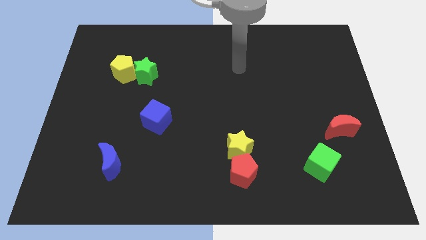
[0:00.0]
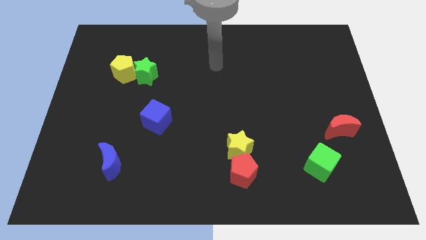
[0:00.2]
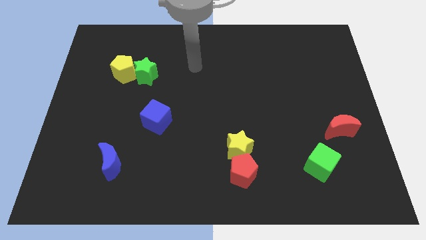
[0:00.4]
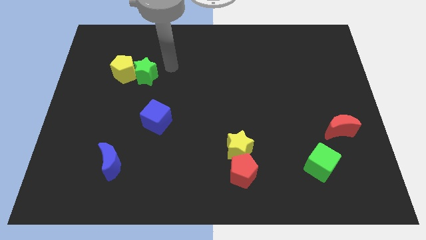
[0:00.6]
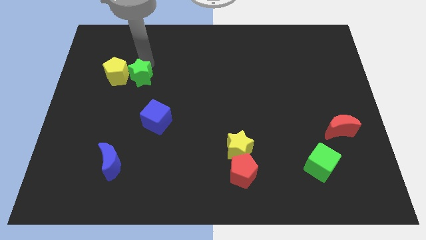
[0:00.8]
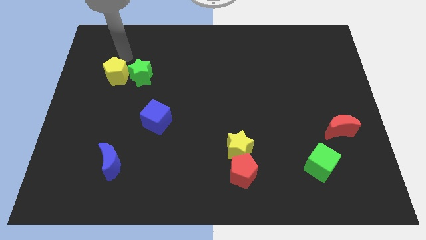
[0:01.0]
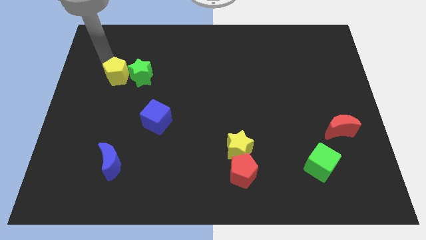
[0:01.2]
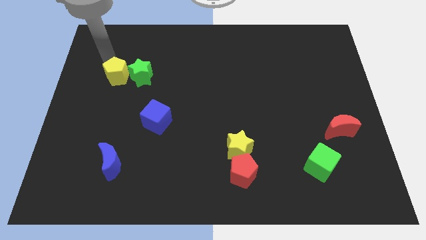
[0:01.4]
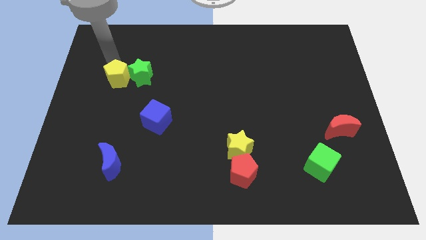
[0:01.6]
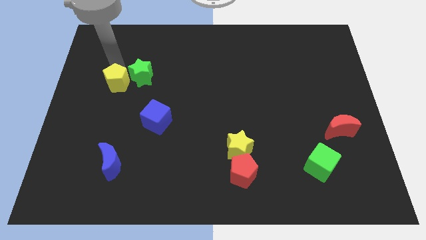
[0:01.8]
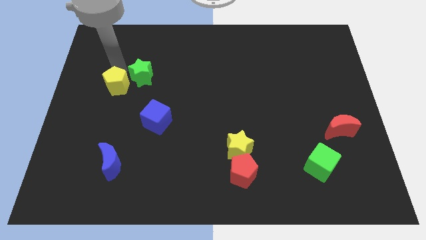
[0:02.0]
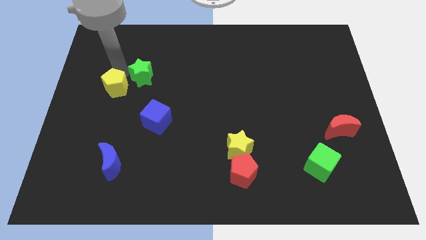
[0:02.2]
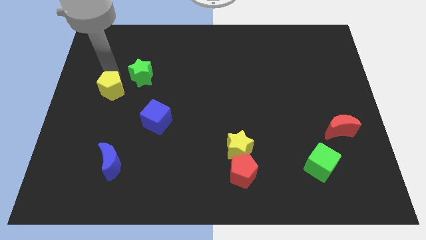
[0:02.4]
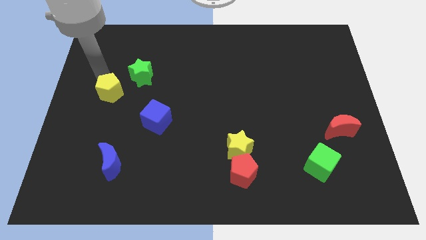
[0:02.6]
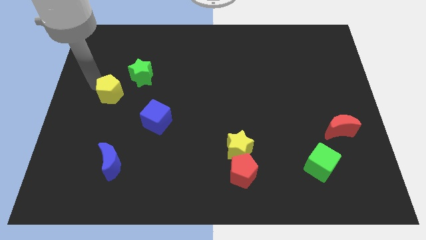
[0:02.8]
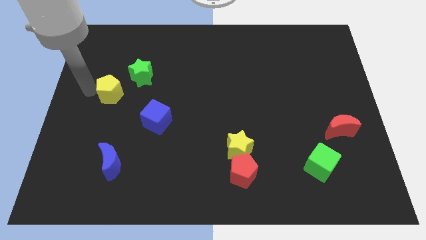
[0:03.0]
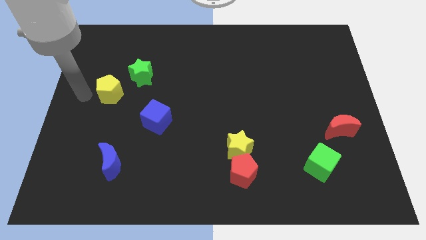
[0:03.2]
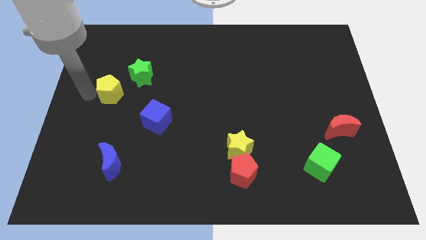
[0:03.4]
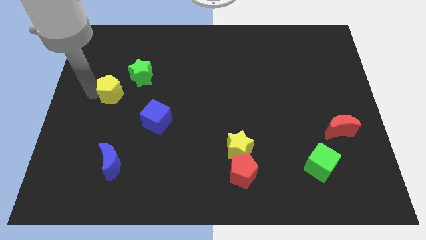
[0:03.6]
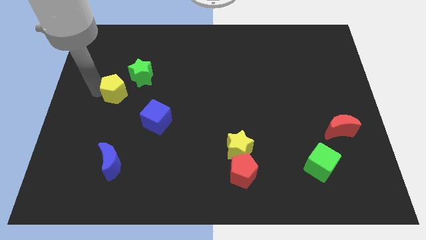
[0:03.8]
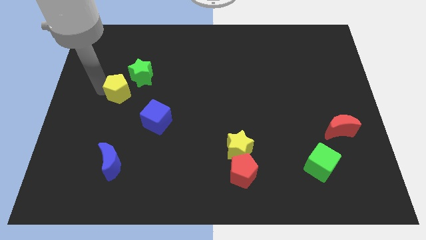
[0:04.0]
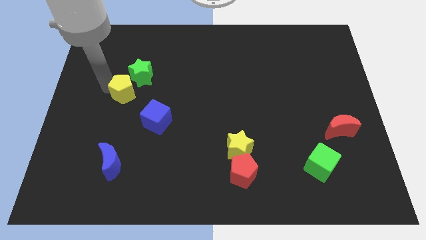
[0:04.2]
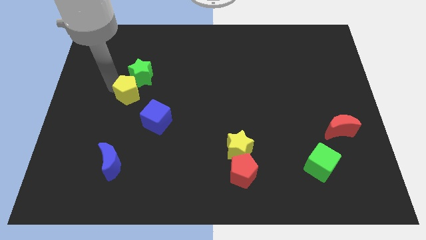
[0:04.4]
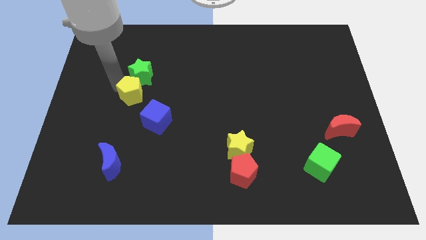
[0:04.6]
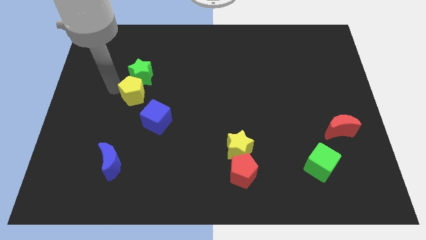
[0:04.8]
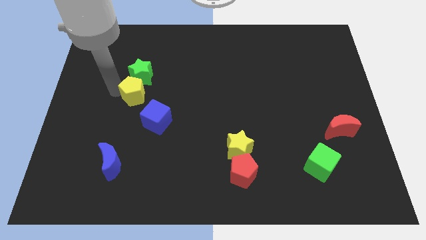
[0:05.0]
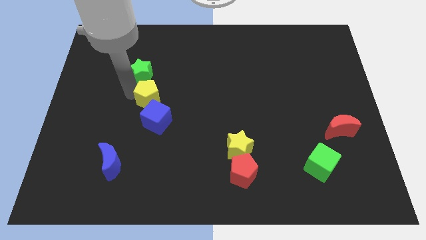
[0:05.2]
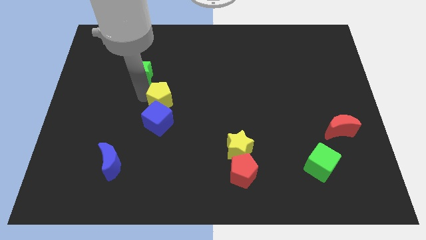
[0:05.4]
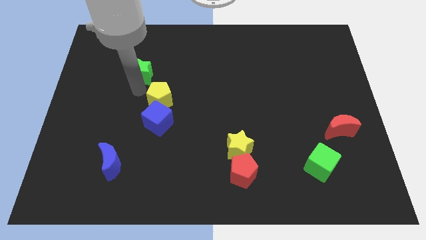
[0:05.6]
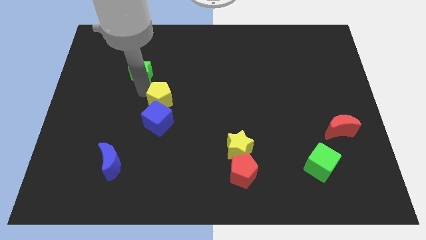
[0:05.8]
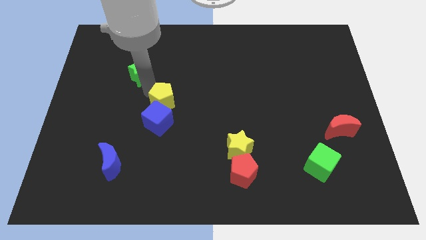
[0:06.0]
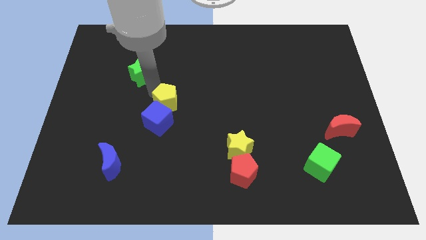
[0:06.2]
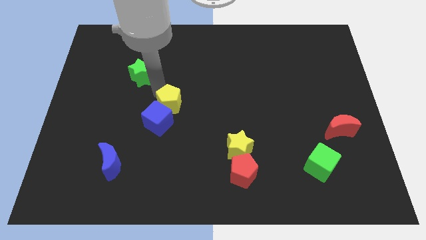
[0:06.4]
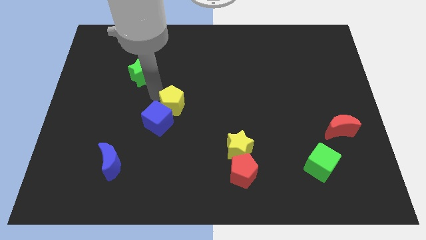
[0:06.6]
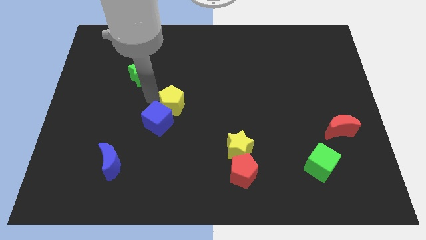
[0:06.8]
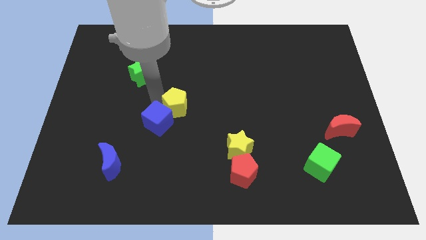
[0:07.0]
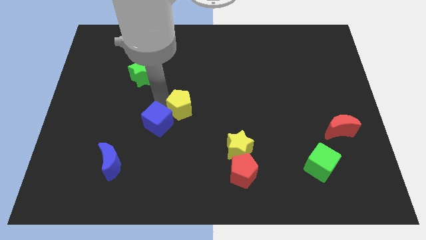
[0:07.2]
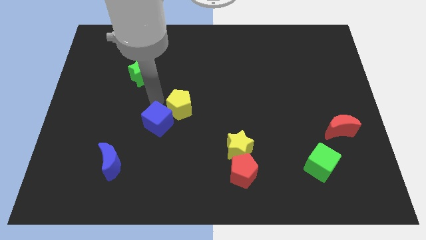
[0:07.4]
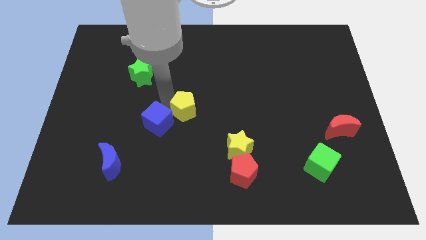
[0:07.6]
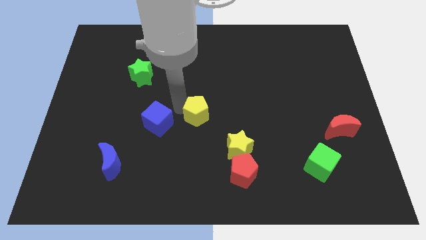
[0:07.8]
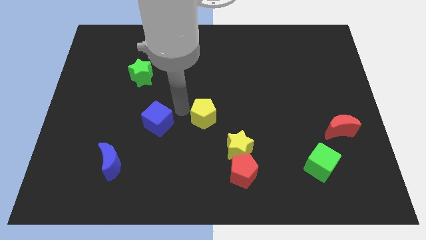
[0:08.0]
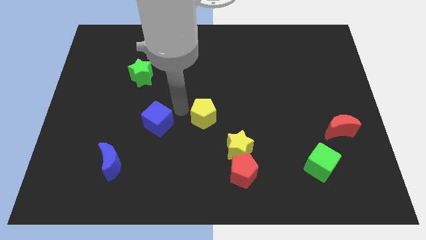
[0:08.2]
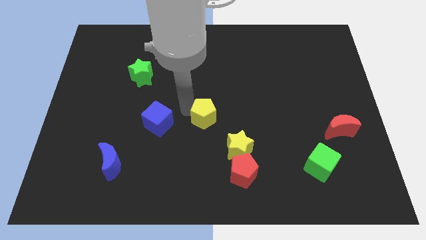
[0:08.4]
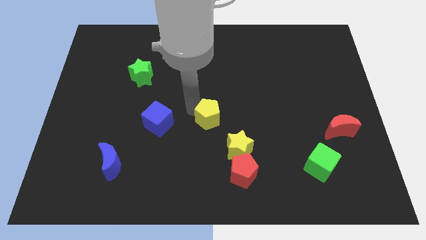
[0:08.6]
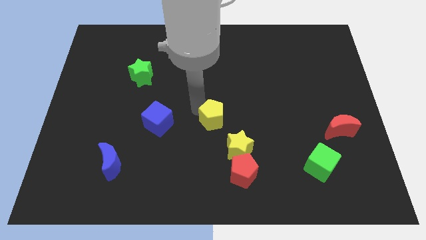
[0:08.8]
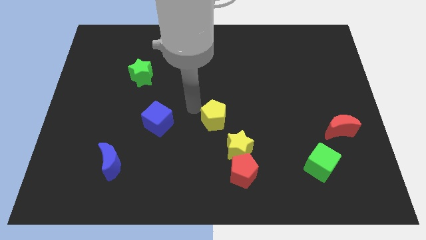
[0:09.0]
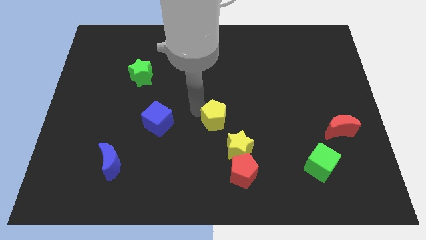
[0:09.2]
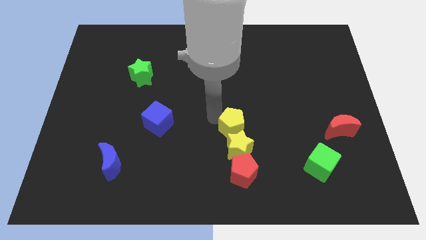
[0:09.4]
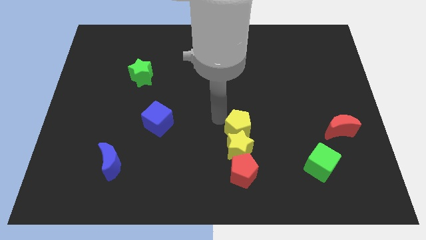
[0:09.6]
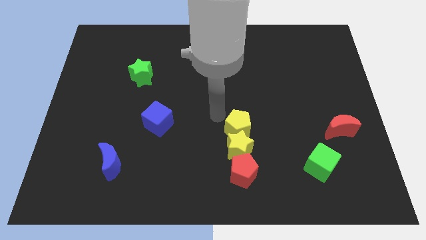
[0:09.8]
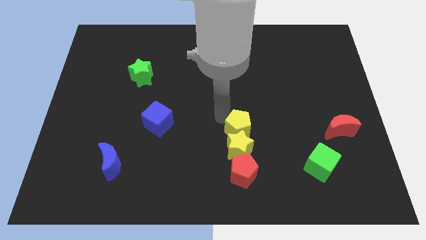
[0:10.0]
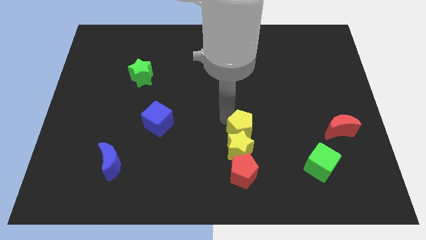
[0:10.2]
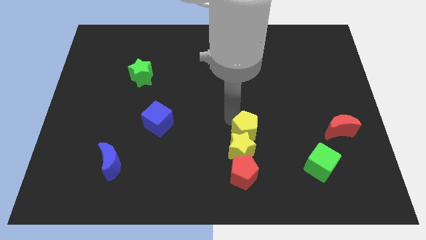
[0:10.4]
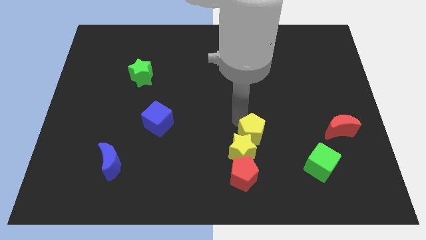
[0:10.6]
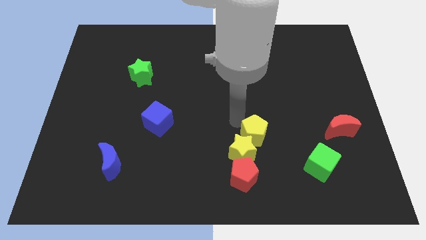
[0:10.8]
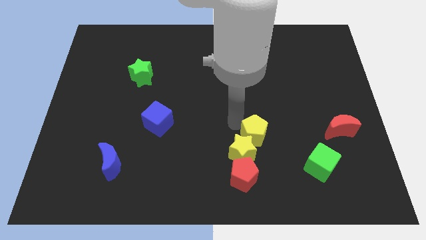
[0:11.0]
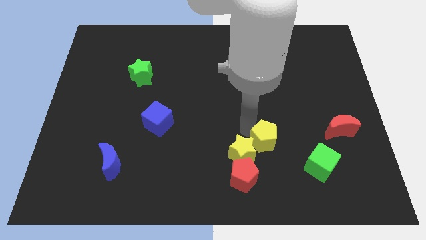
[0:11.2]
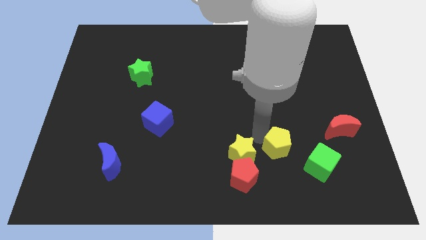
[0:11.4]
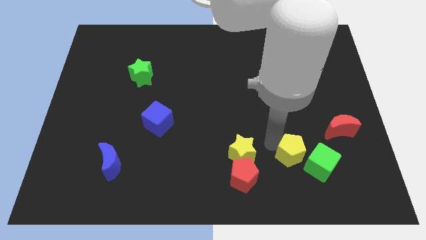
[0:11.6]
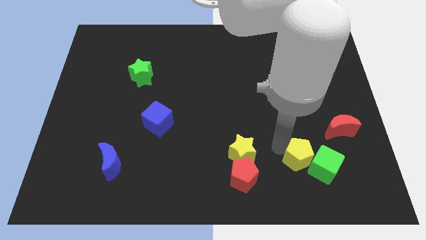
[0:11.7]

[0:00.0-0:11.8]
slide the yellow pentagon next to the green cube

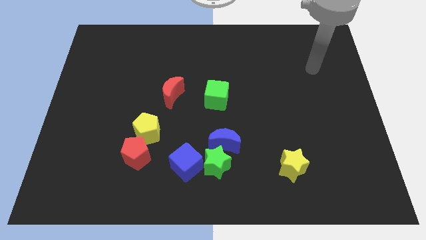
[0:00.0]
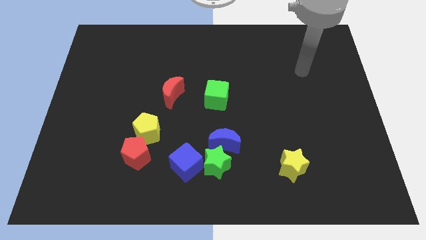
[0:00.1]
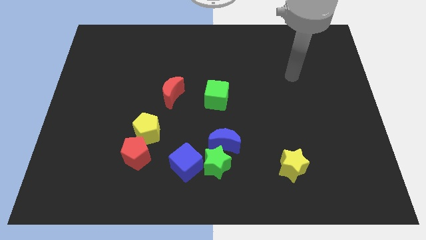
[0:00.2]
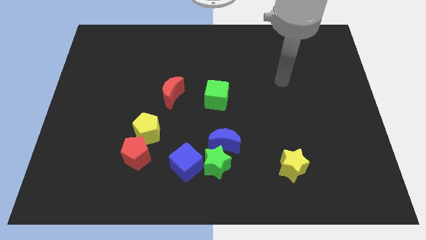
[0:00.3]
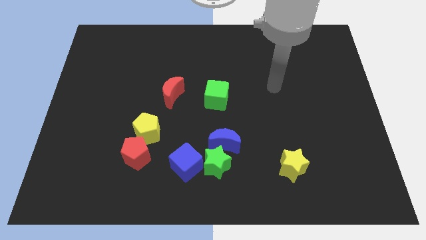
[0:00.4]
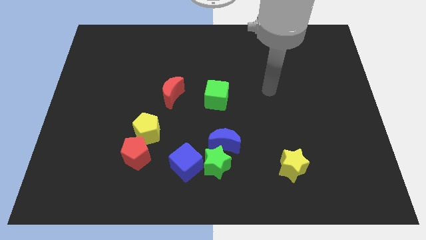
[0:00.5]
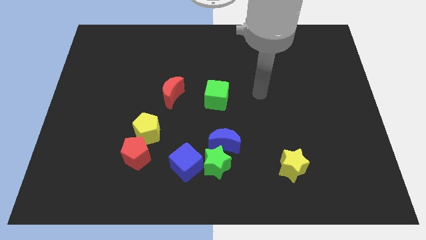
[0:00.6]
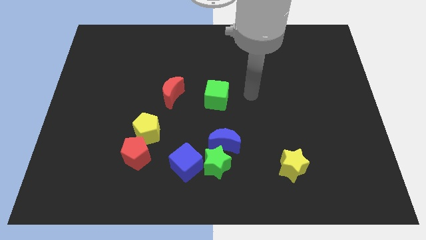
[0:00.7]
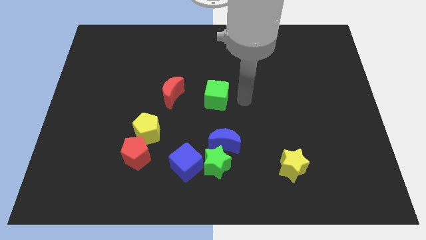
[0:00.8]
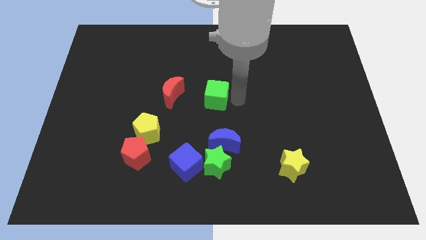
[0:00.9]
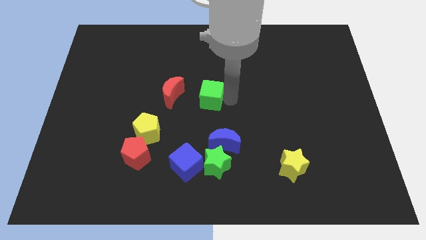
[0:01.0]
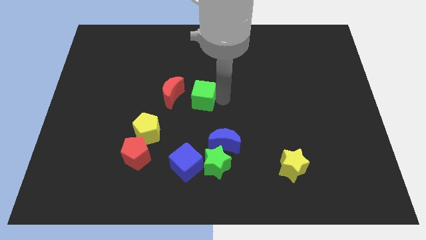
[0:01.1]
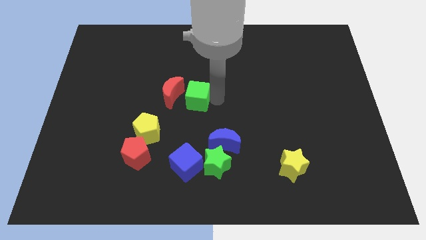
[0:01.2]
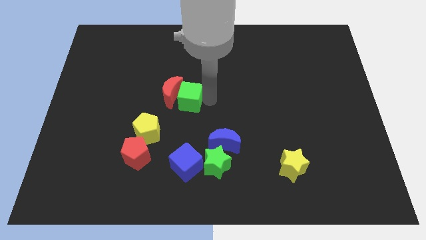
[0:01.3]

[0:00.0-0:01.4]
put the green cube towards the red moon
